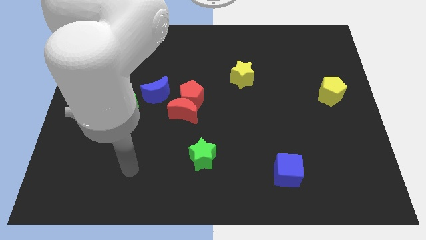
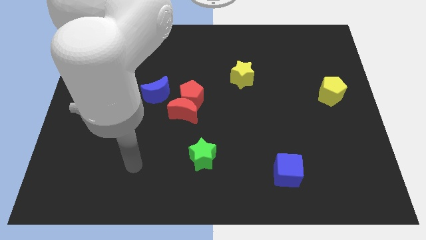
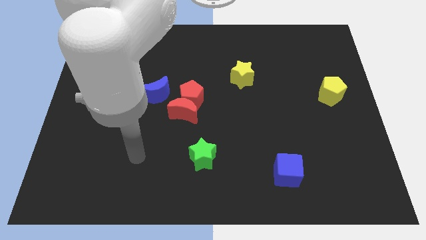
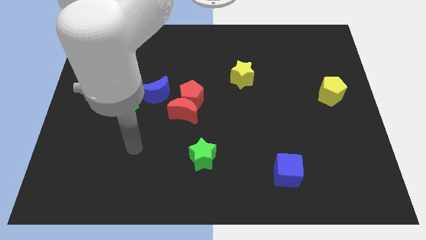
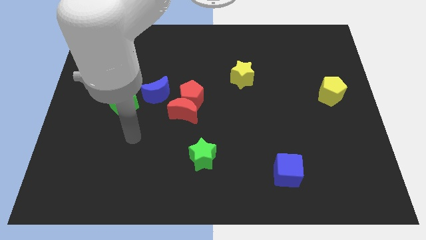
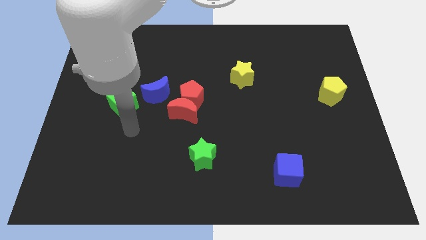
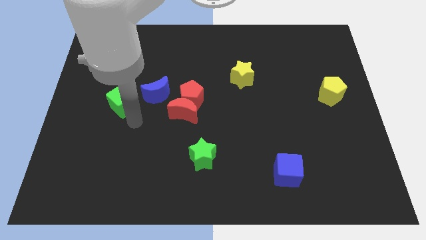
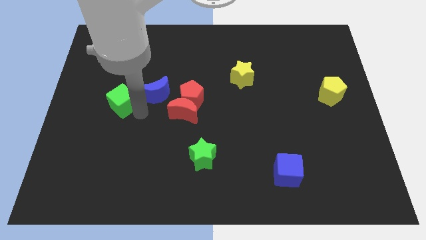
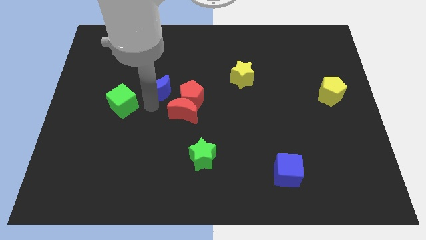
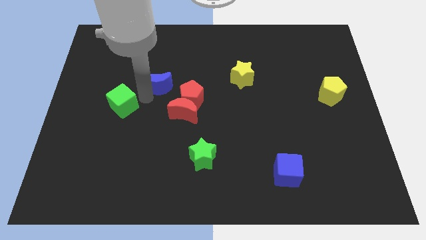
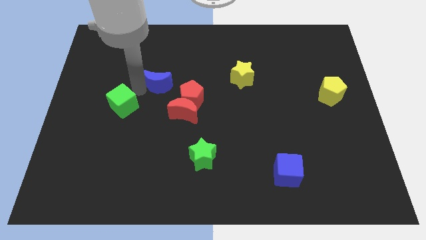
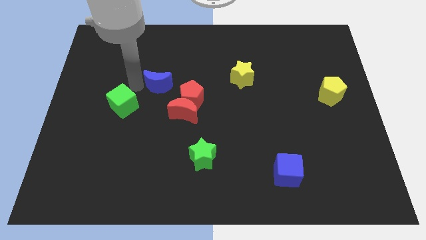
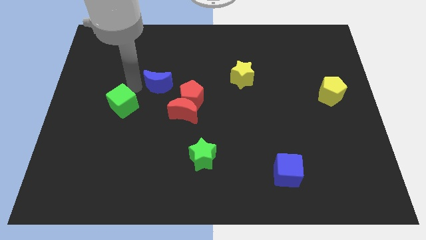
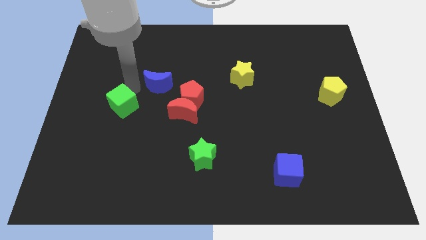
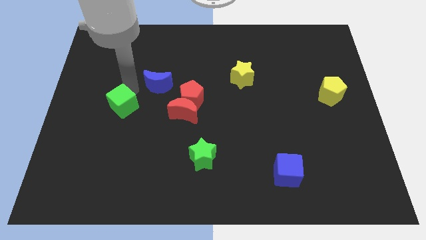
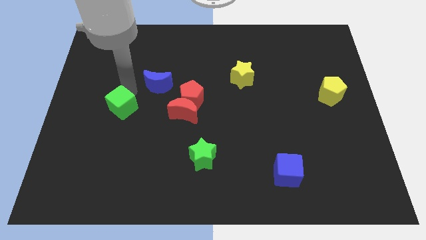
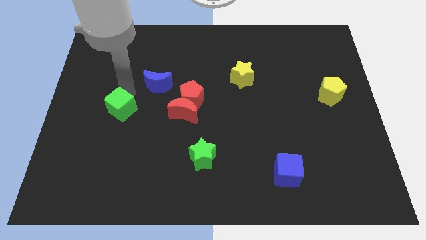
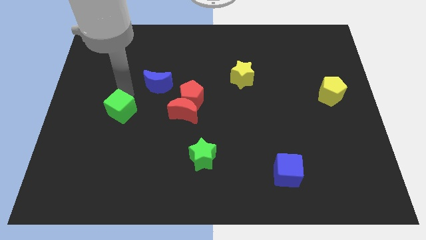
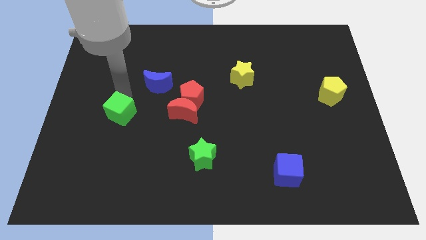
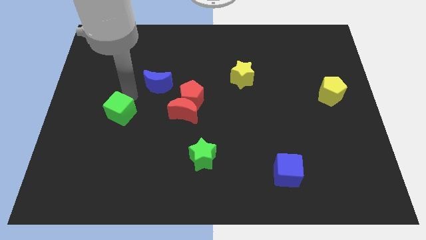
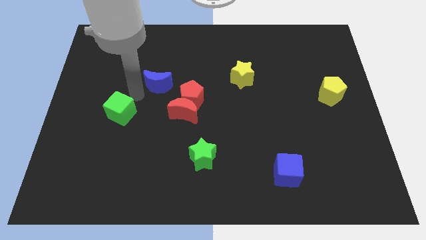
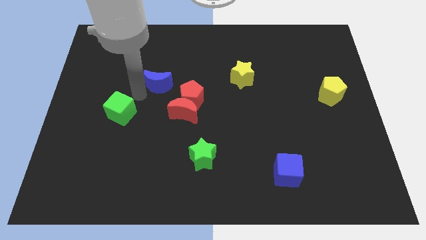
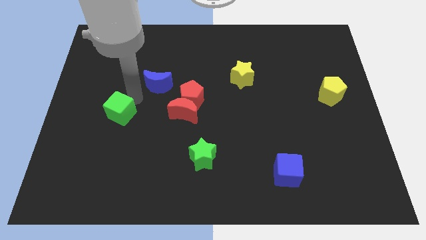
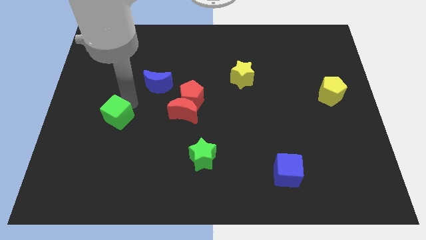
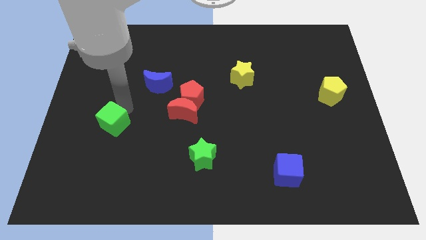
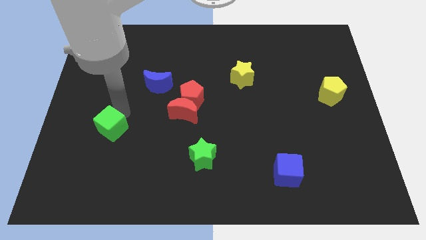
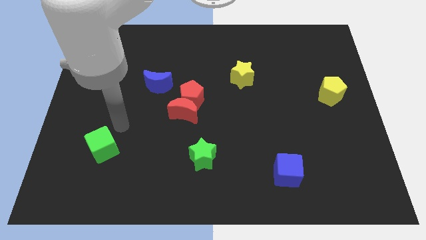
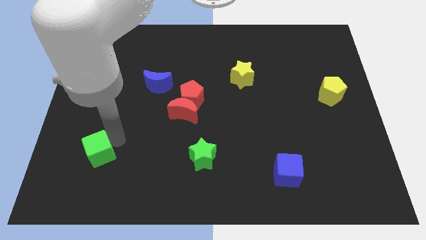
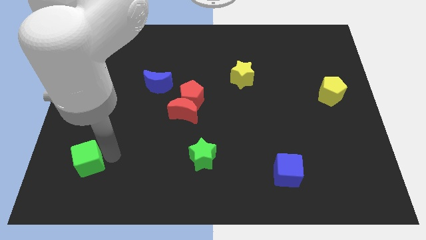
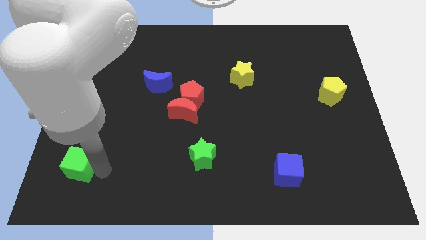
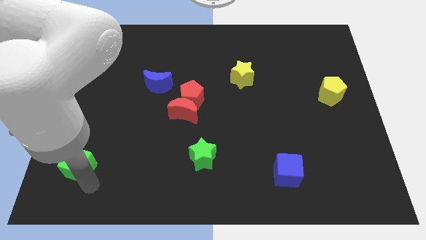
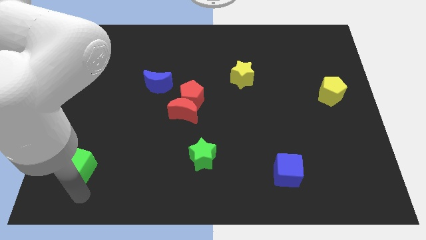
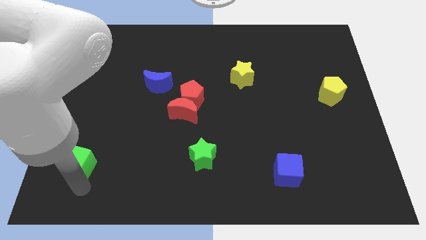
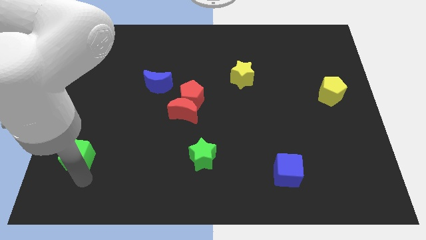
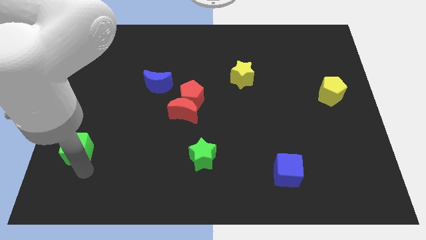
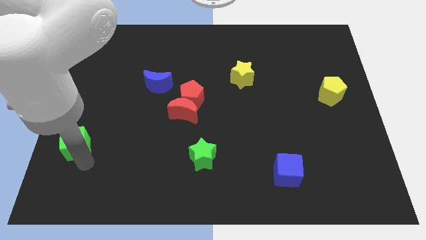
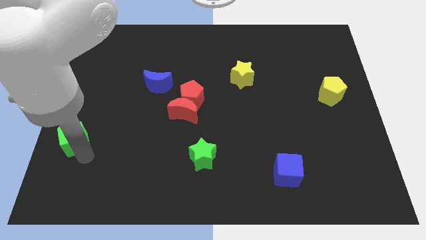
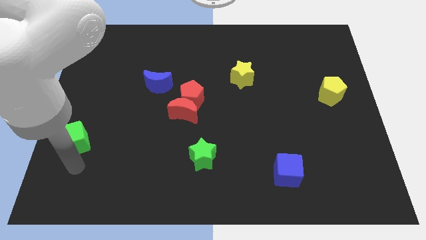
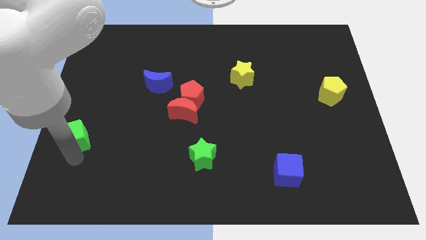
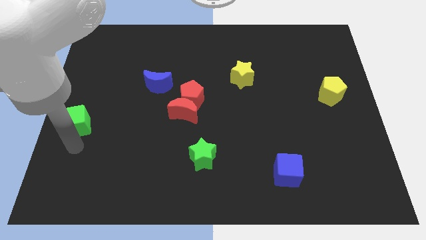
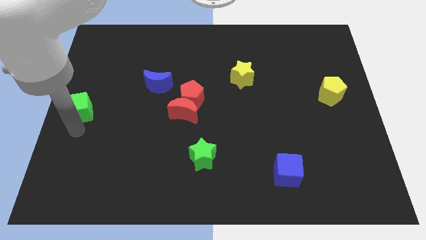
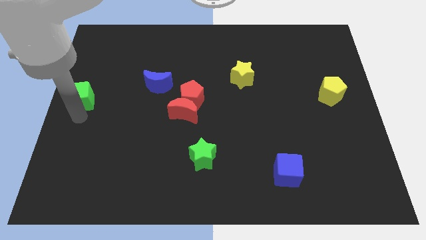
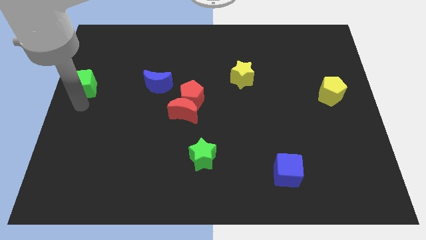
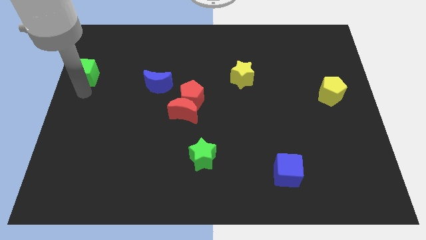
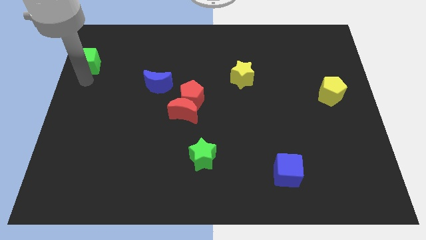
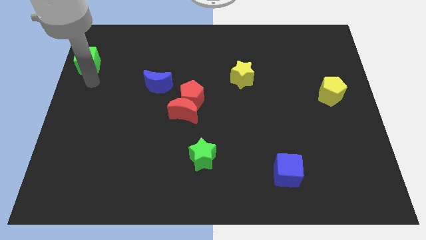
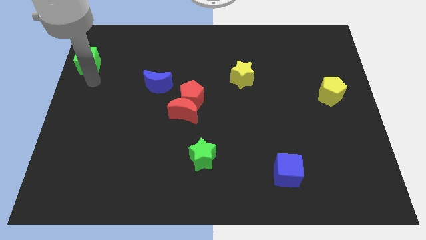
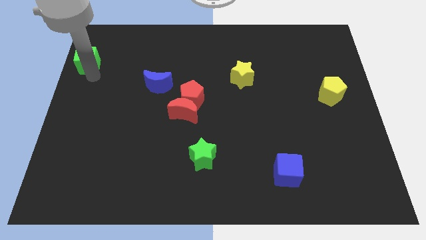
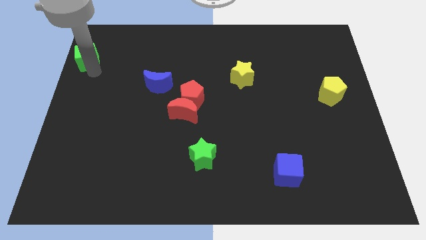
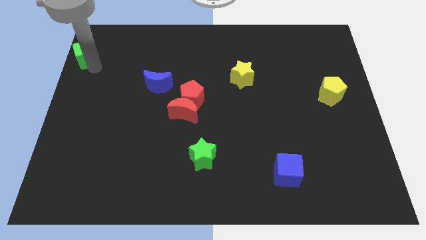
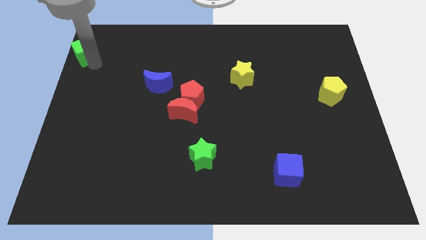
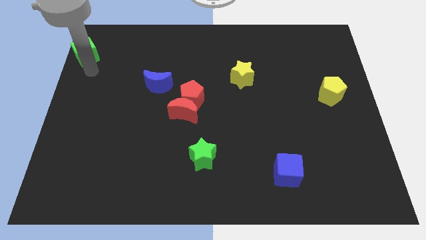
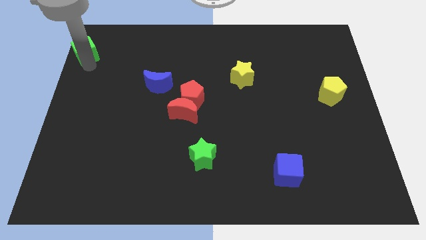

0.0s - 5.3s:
move the green cube to the upper left corner

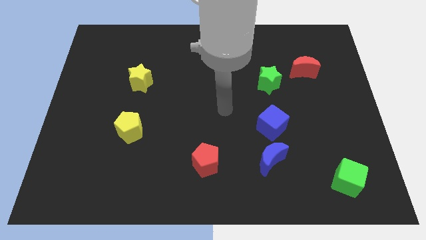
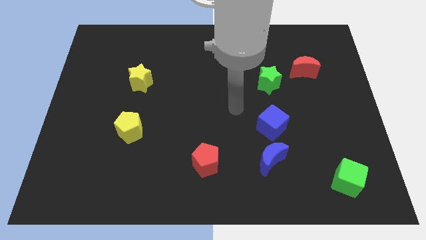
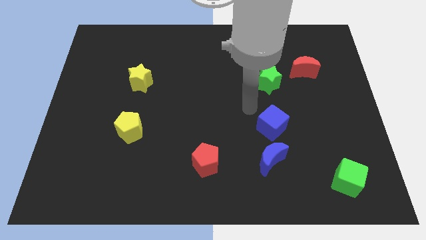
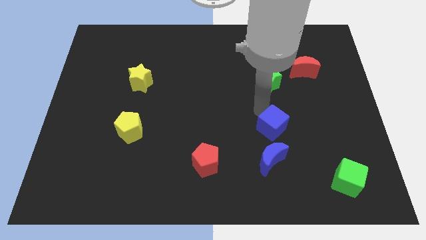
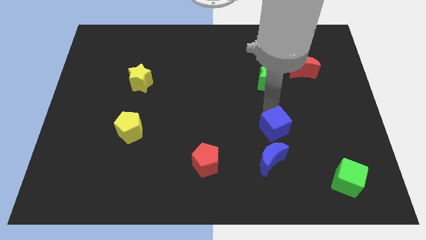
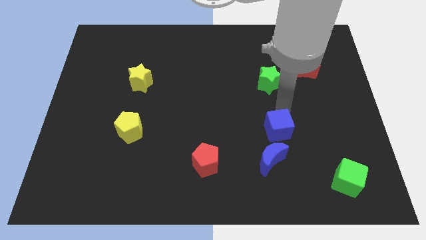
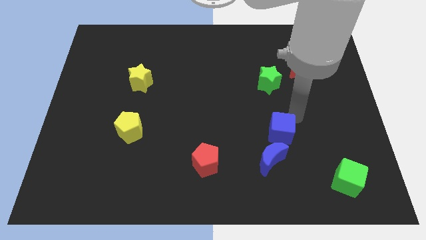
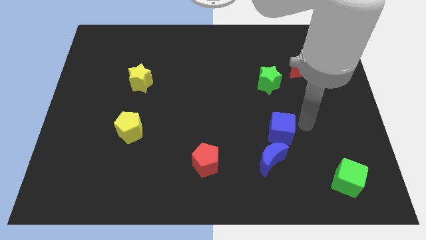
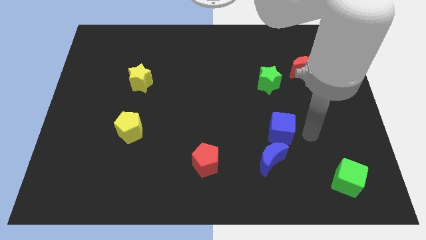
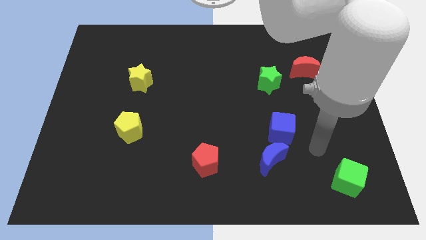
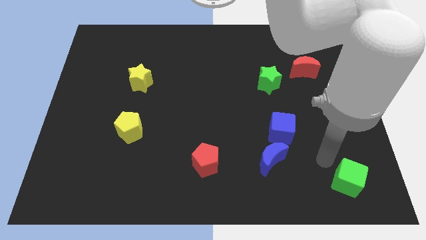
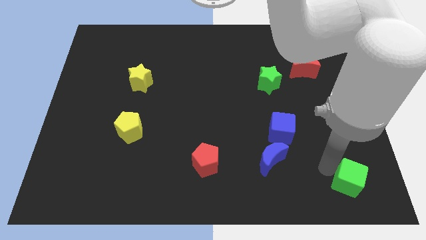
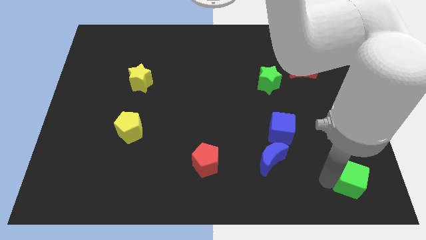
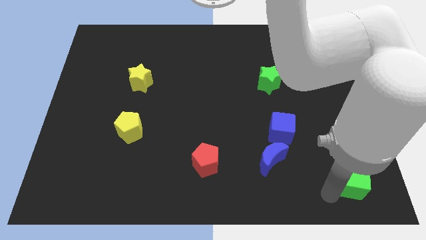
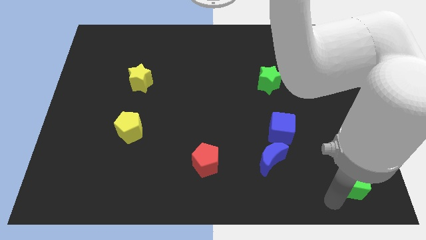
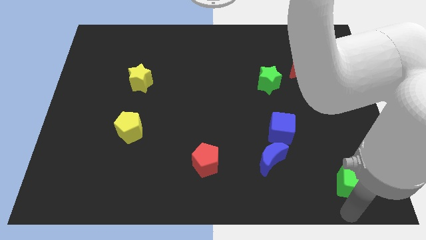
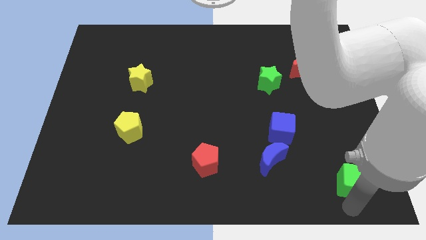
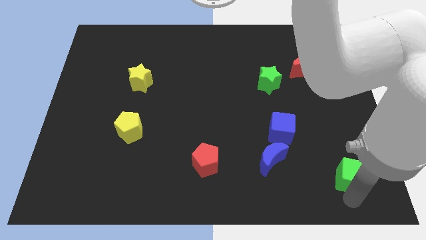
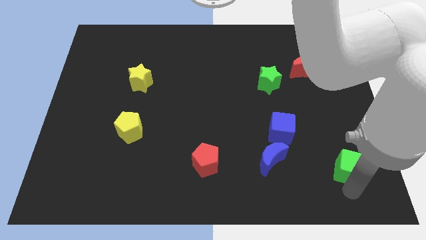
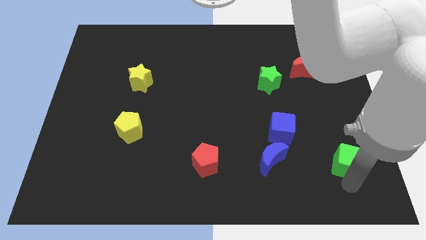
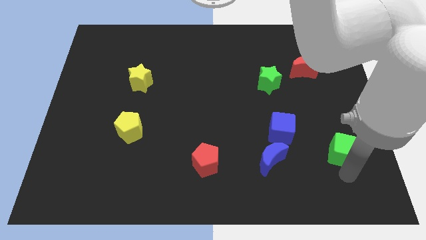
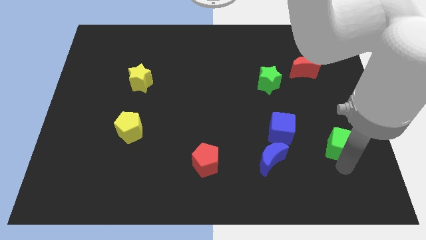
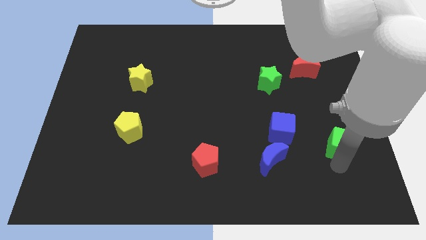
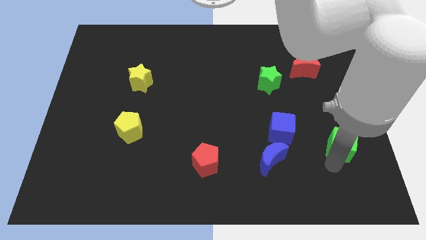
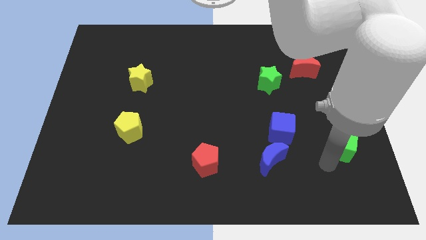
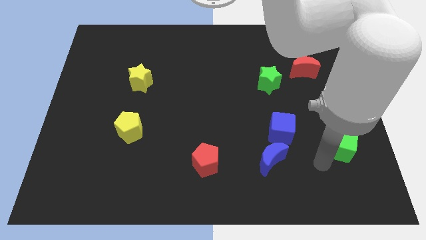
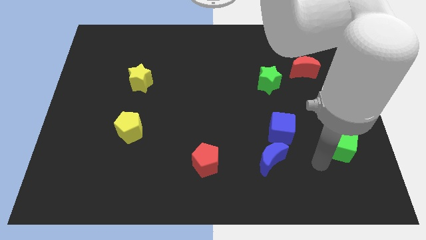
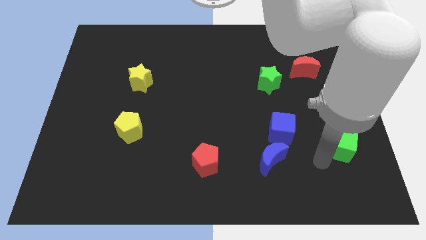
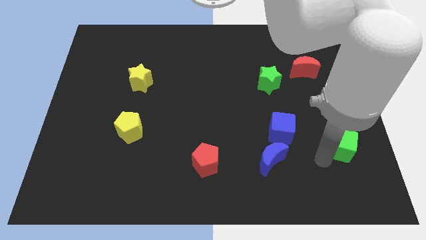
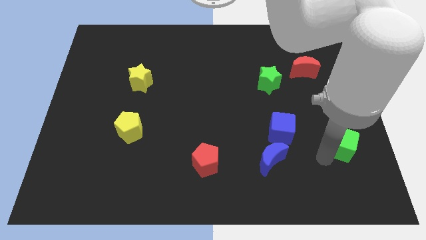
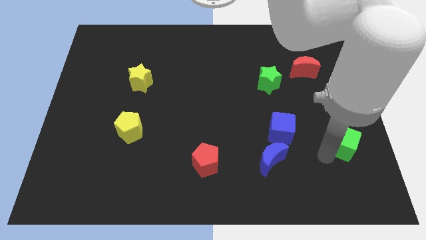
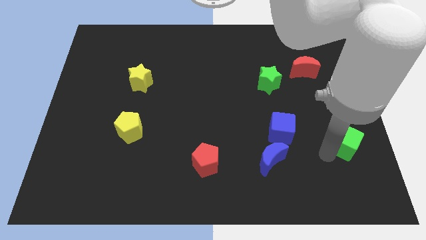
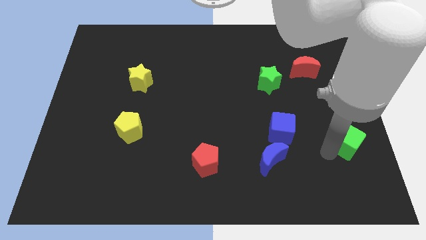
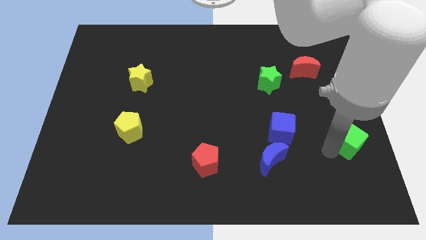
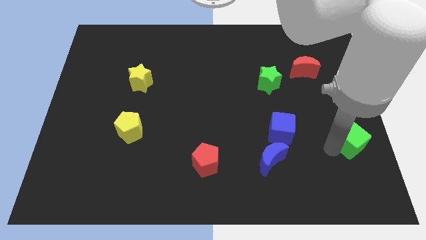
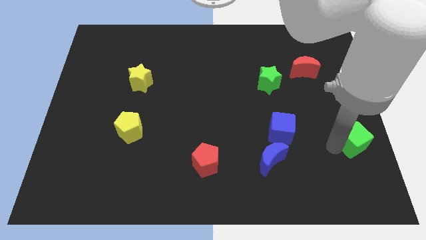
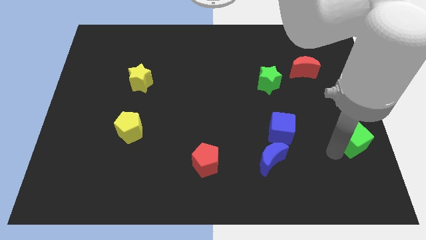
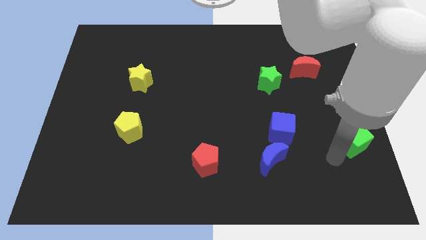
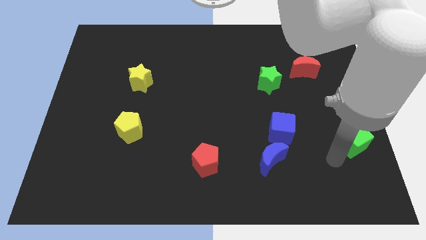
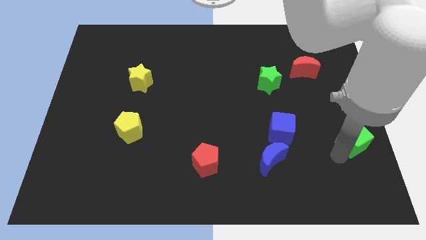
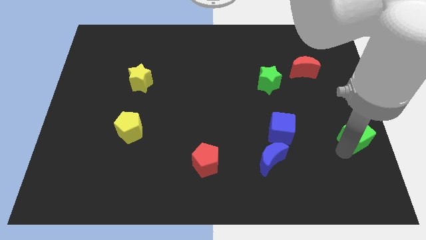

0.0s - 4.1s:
put the green cube to the center right
